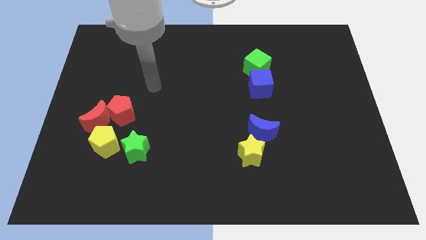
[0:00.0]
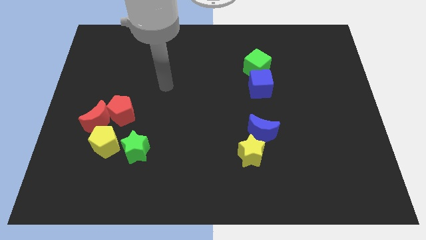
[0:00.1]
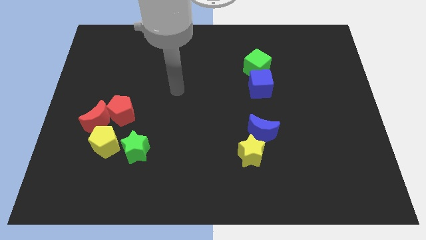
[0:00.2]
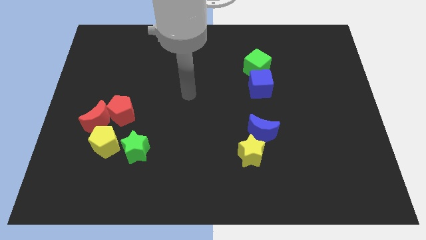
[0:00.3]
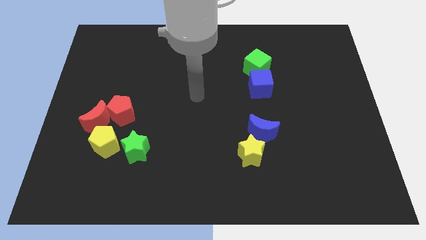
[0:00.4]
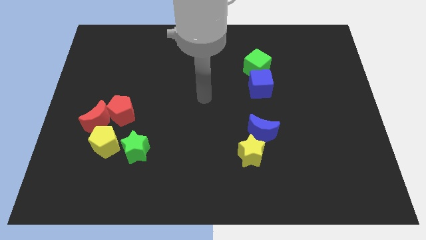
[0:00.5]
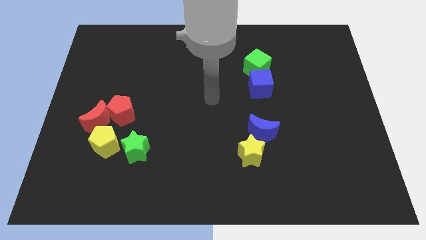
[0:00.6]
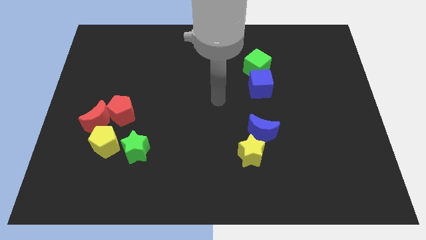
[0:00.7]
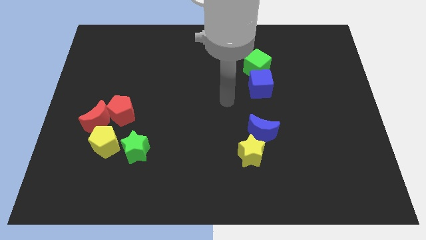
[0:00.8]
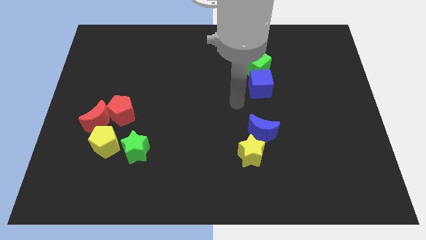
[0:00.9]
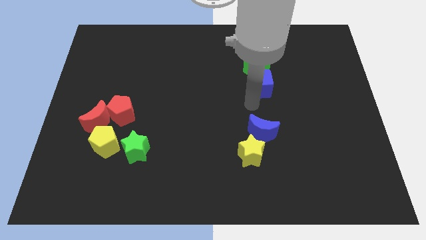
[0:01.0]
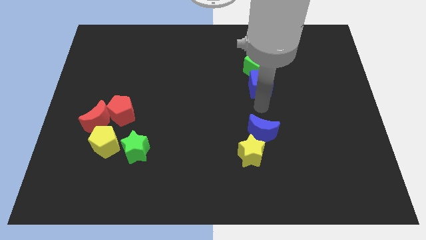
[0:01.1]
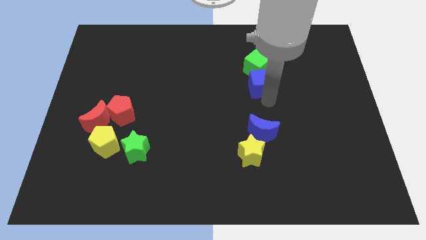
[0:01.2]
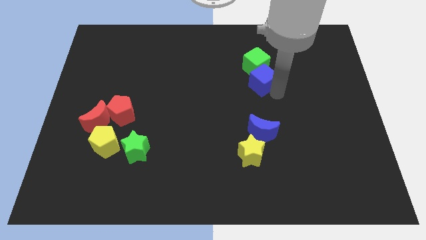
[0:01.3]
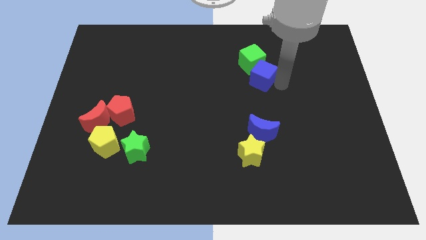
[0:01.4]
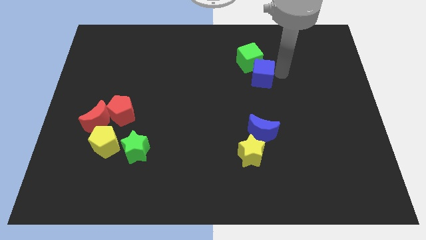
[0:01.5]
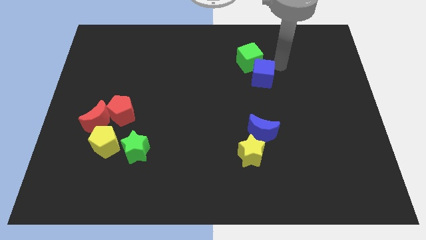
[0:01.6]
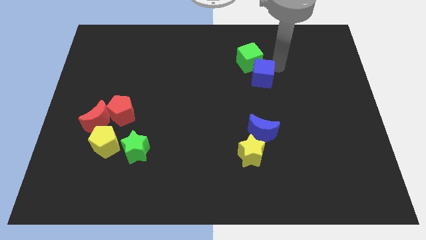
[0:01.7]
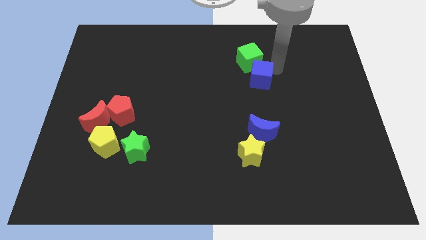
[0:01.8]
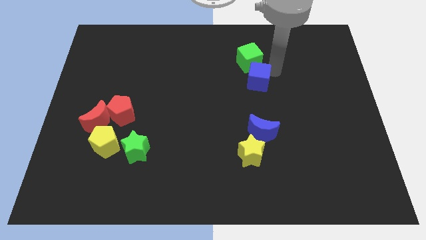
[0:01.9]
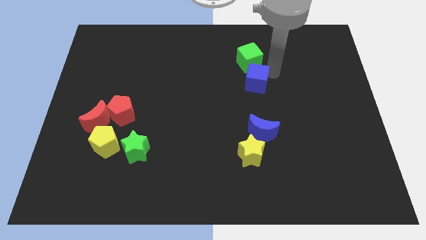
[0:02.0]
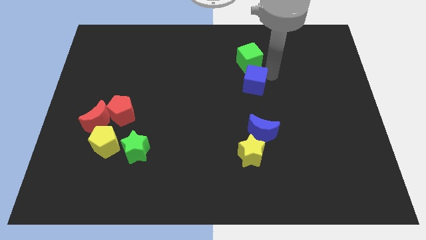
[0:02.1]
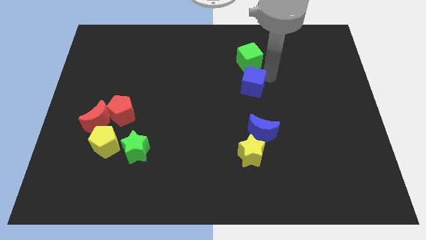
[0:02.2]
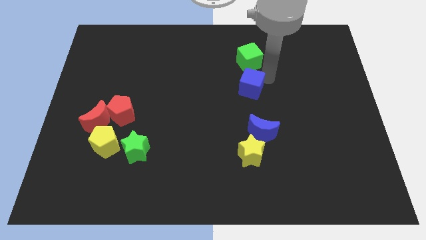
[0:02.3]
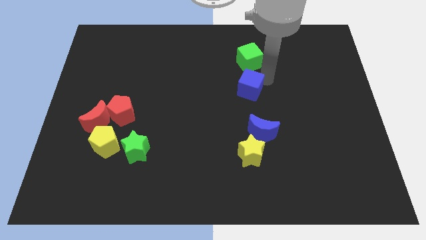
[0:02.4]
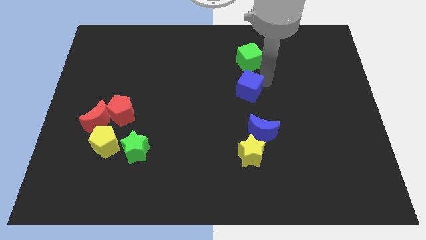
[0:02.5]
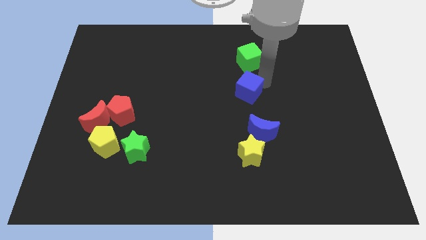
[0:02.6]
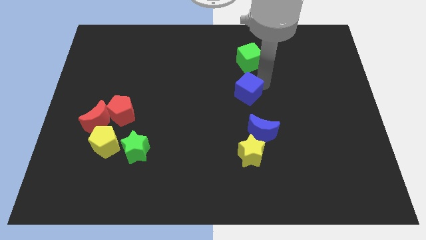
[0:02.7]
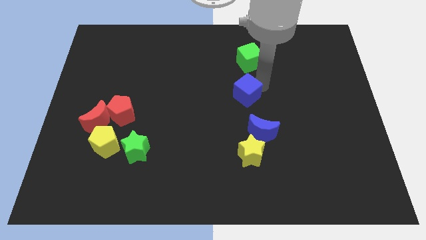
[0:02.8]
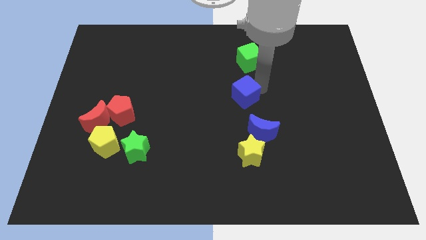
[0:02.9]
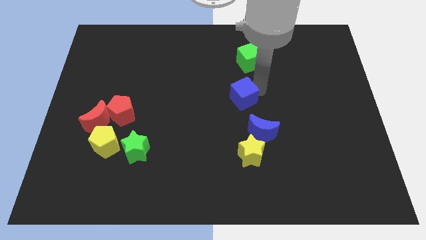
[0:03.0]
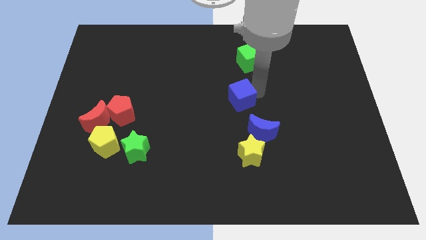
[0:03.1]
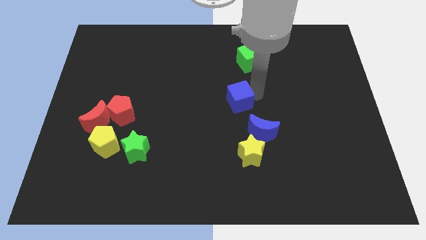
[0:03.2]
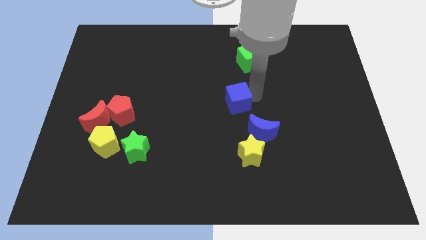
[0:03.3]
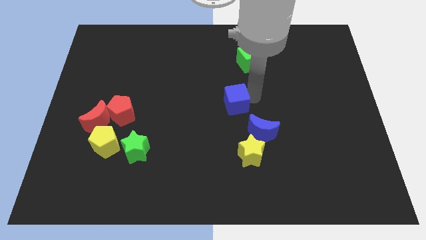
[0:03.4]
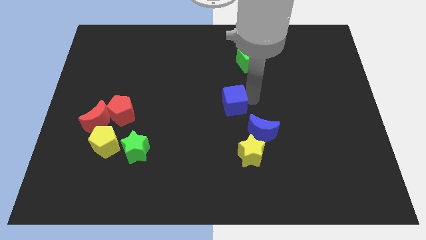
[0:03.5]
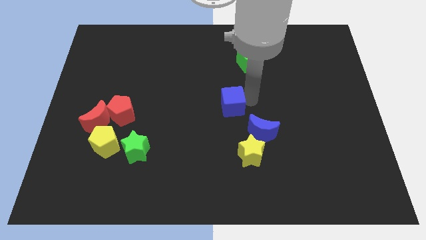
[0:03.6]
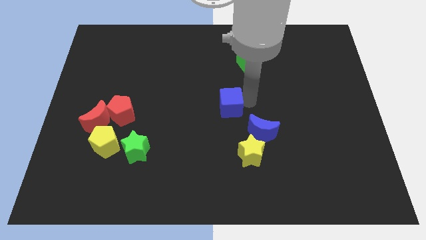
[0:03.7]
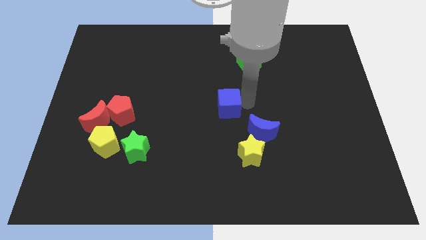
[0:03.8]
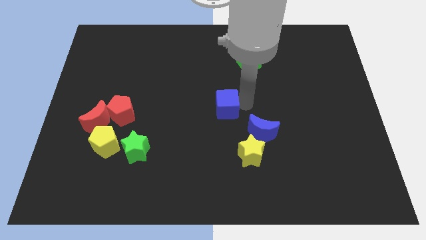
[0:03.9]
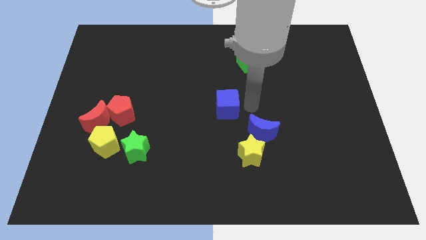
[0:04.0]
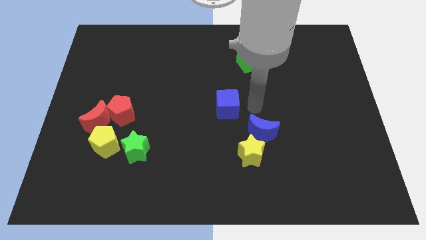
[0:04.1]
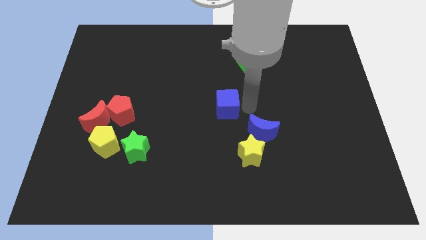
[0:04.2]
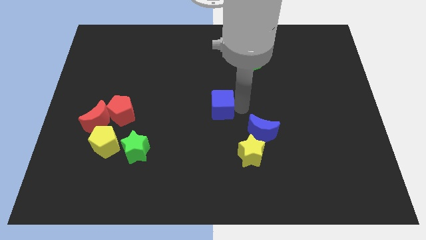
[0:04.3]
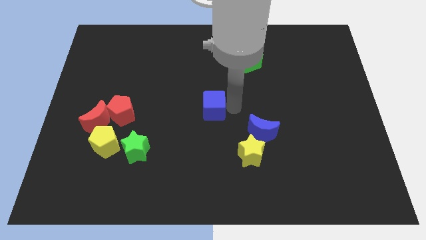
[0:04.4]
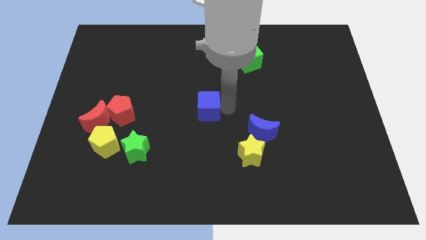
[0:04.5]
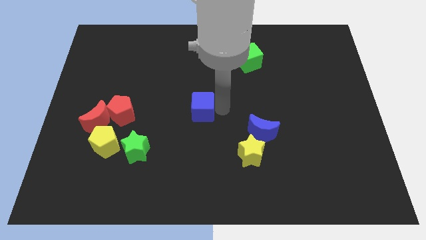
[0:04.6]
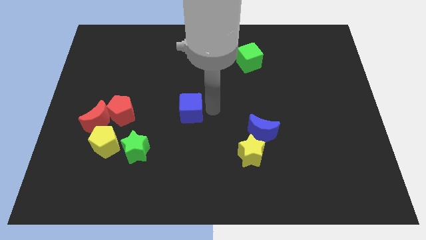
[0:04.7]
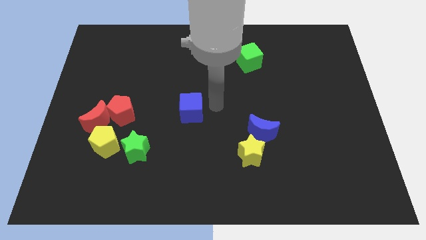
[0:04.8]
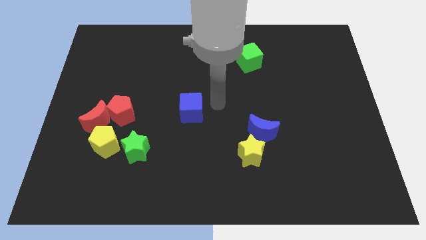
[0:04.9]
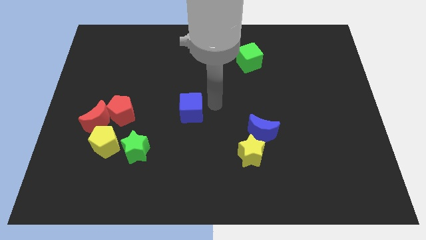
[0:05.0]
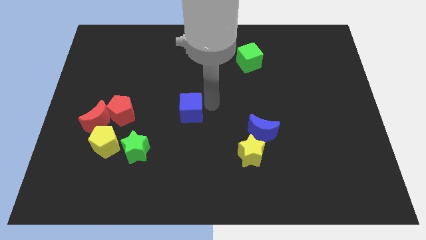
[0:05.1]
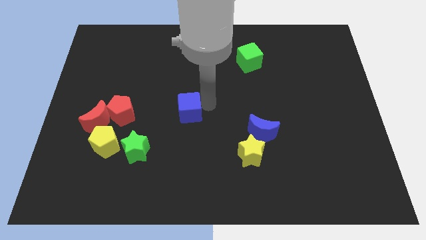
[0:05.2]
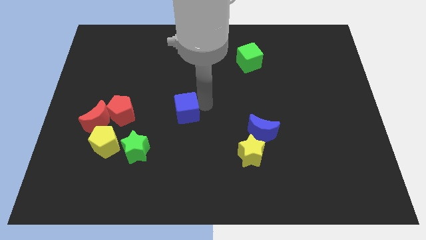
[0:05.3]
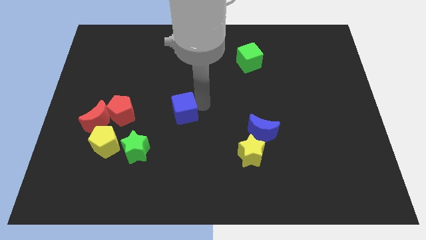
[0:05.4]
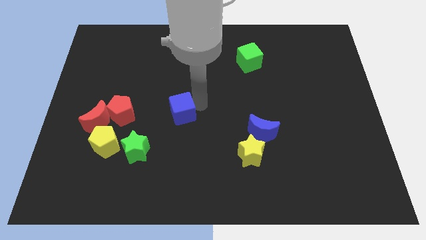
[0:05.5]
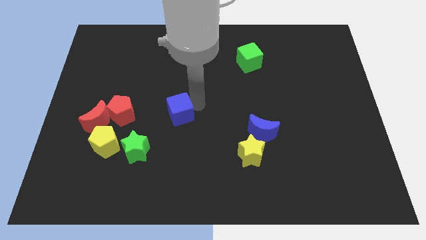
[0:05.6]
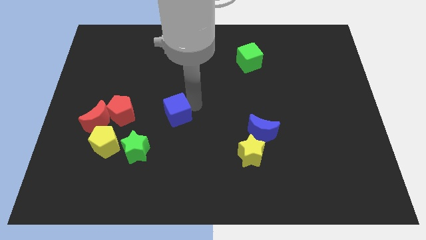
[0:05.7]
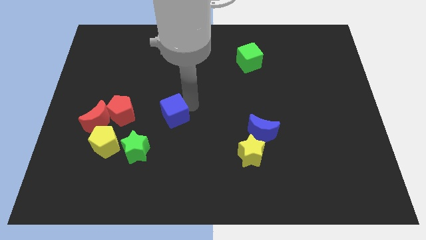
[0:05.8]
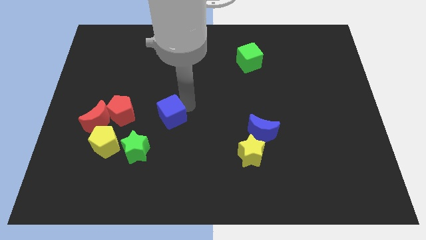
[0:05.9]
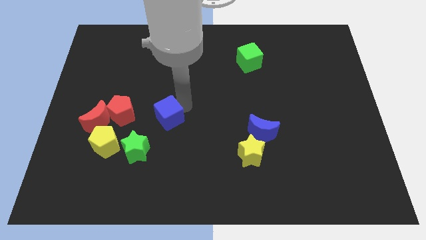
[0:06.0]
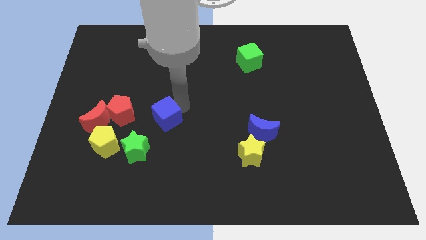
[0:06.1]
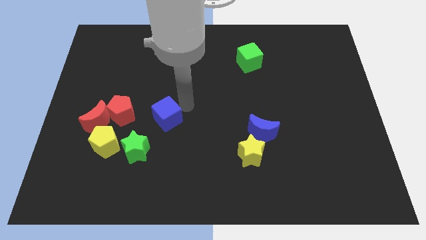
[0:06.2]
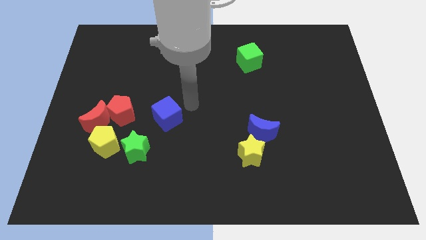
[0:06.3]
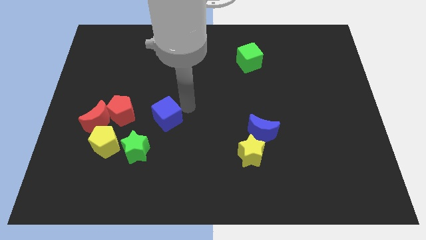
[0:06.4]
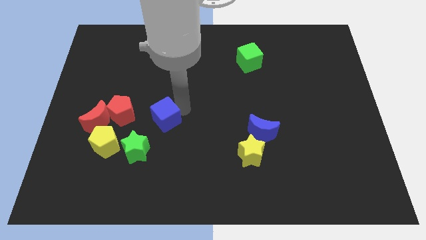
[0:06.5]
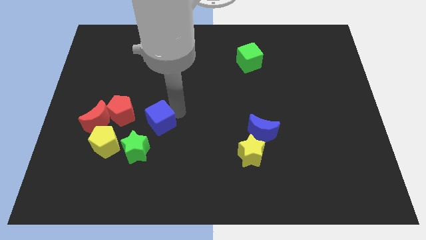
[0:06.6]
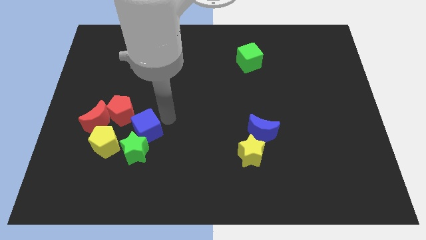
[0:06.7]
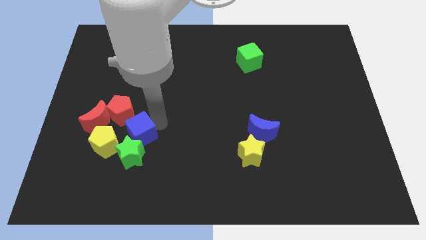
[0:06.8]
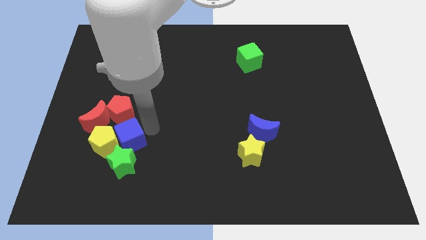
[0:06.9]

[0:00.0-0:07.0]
slide the blue cube towards the yellow pentagon

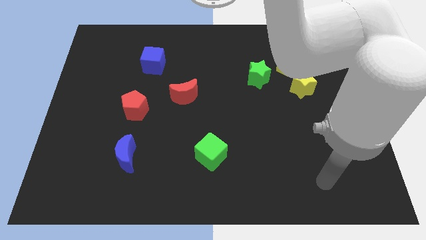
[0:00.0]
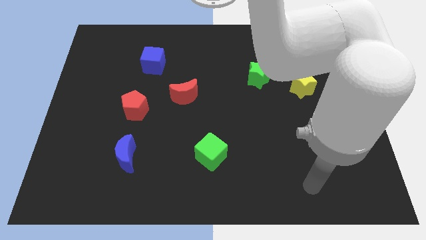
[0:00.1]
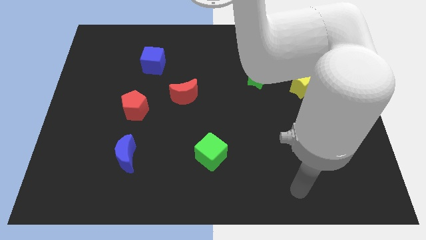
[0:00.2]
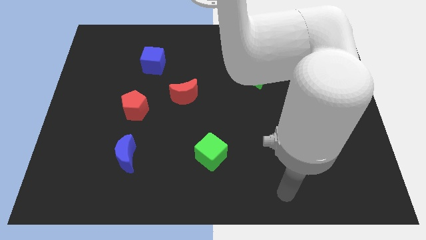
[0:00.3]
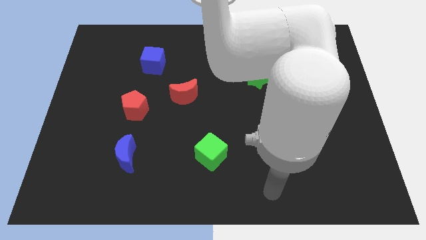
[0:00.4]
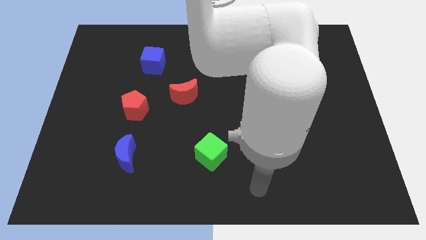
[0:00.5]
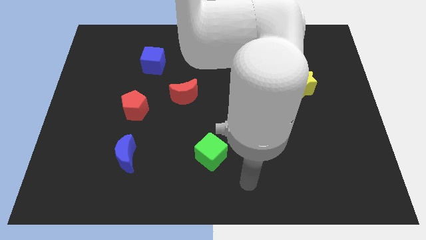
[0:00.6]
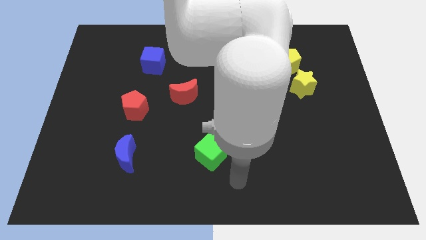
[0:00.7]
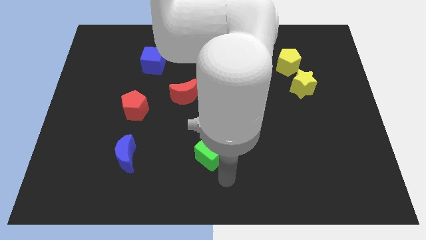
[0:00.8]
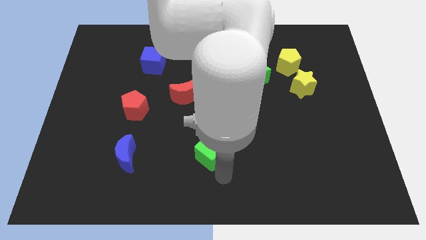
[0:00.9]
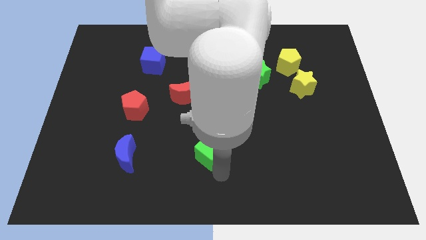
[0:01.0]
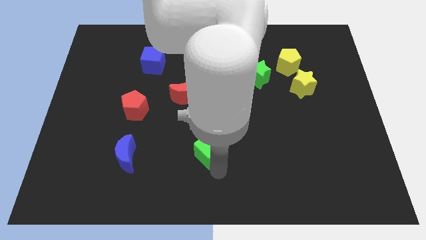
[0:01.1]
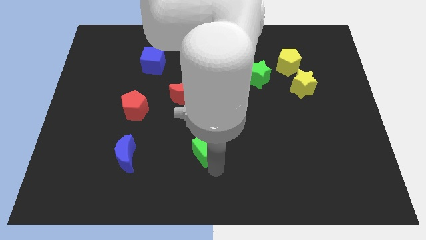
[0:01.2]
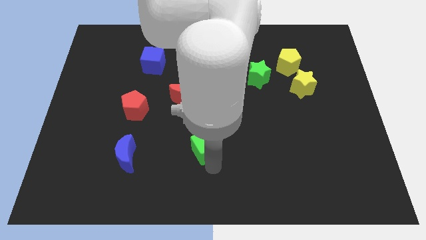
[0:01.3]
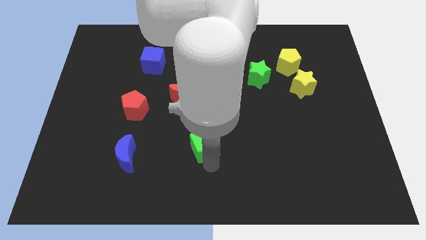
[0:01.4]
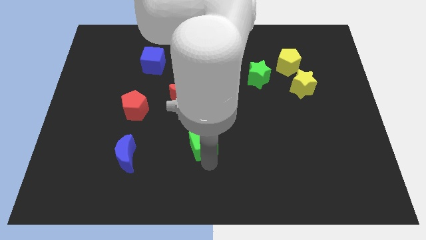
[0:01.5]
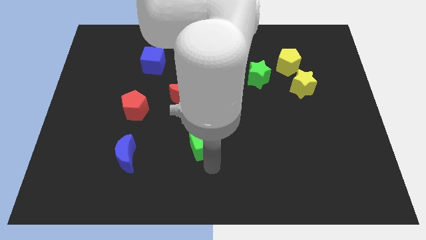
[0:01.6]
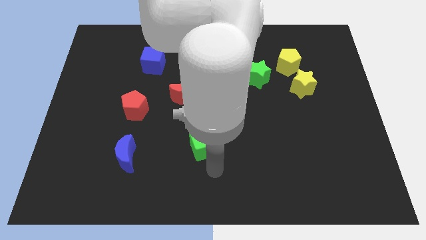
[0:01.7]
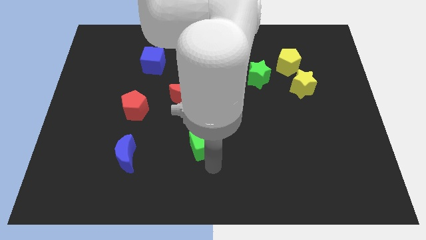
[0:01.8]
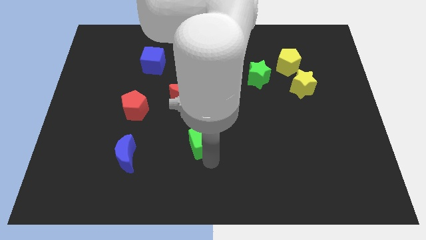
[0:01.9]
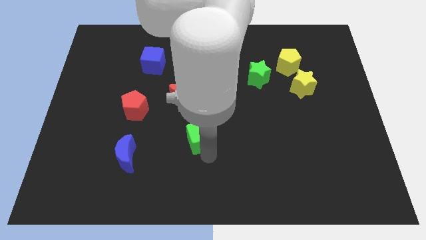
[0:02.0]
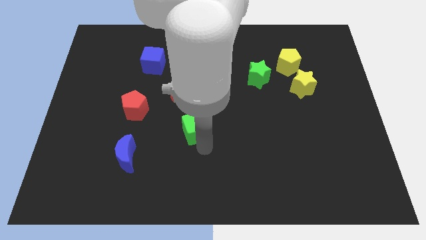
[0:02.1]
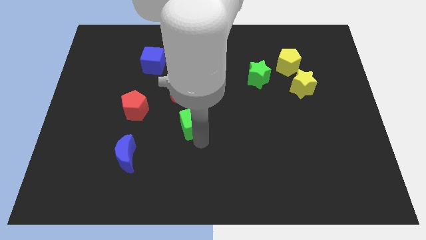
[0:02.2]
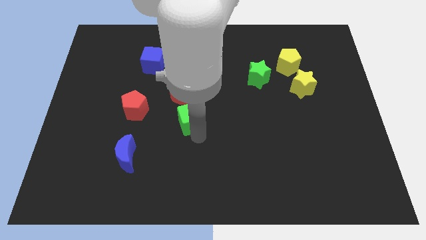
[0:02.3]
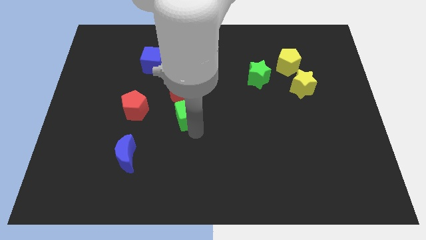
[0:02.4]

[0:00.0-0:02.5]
move the green cube to the red moon
